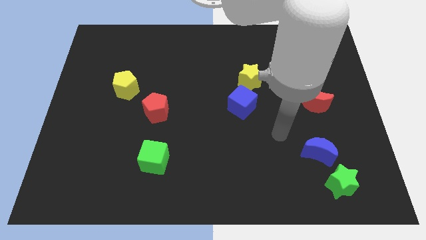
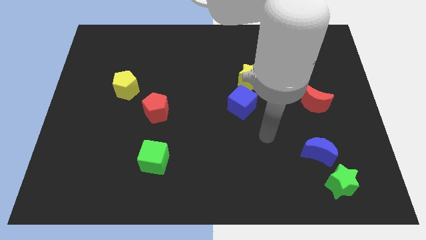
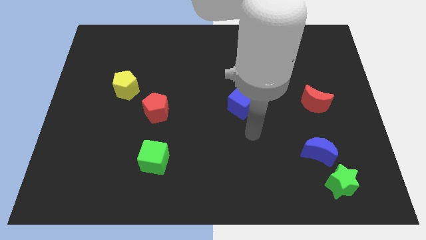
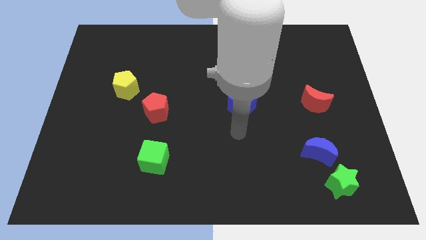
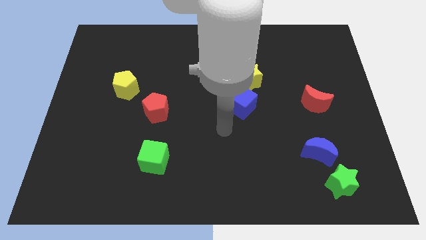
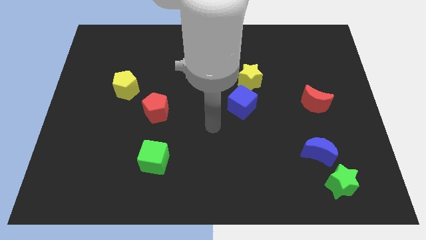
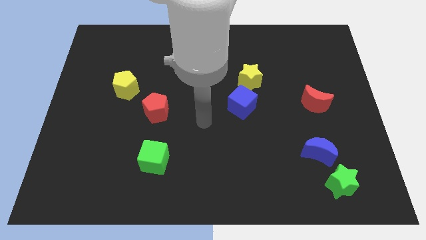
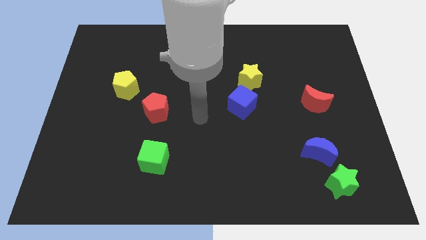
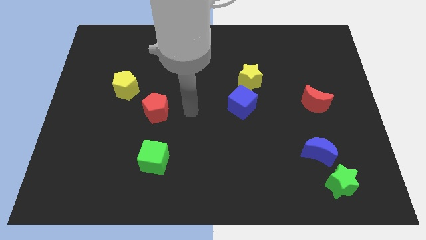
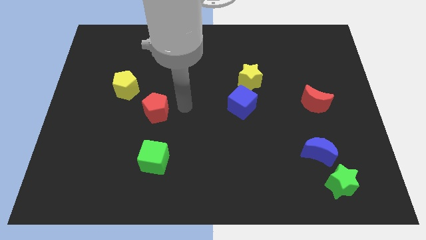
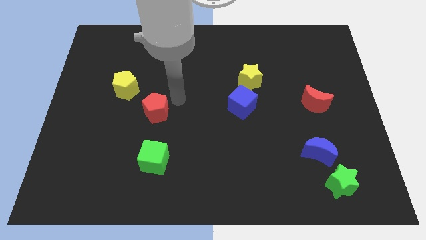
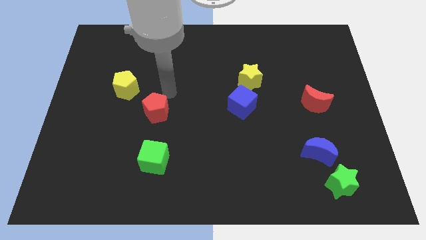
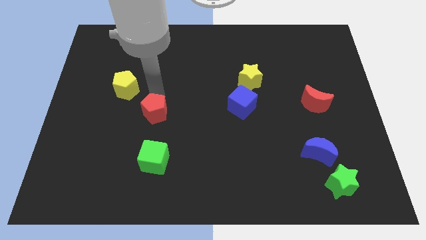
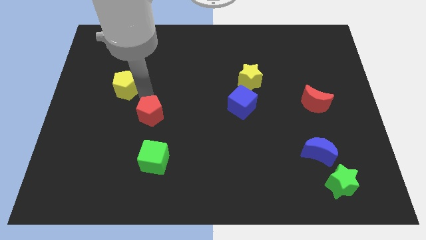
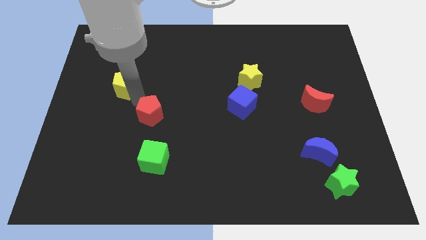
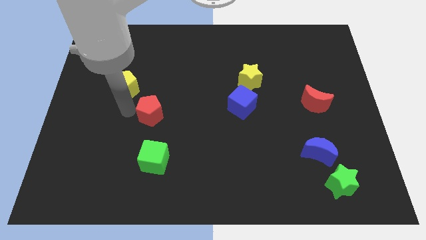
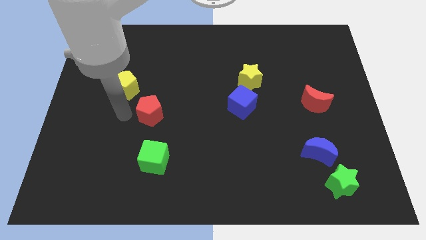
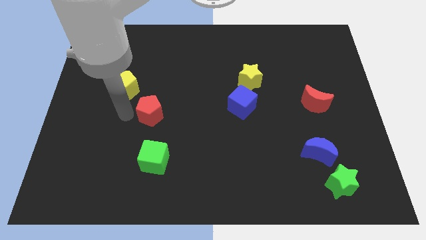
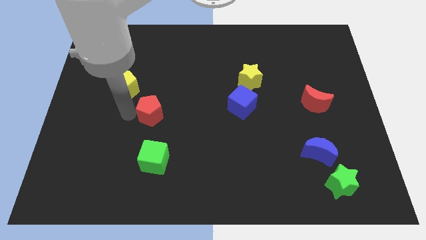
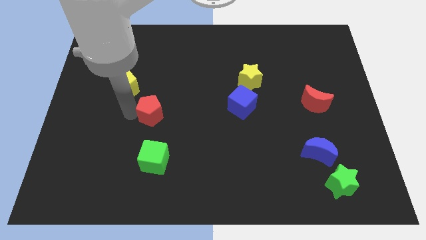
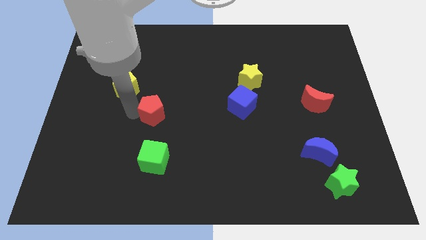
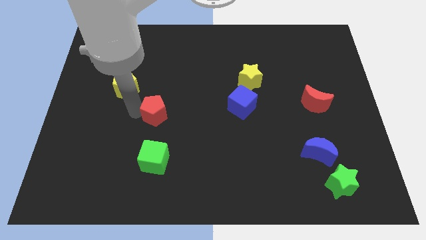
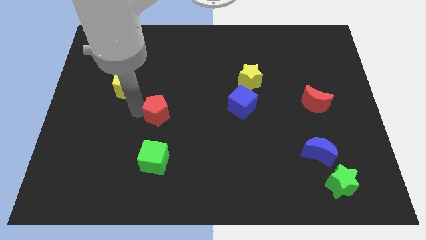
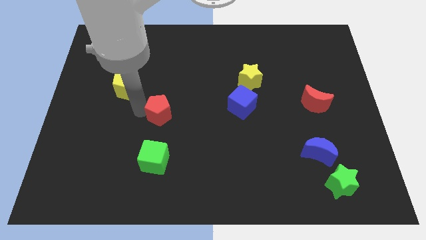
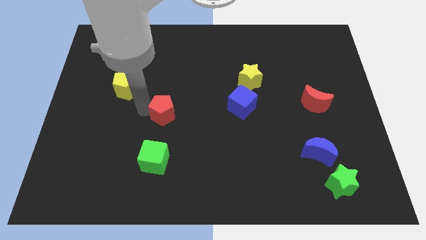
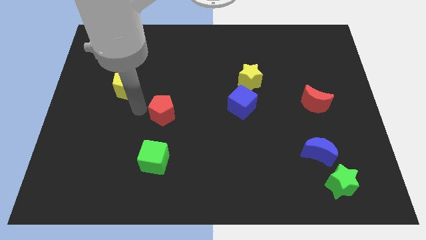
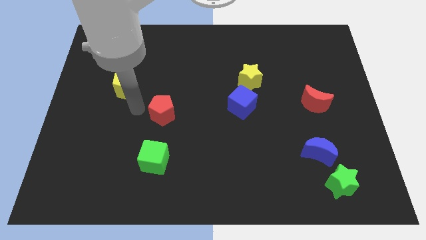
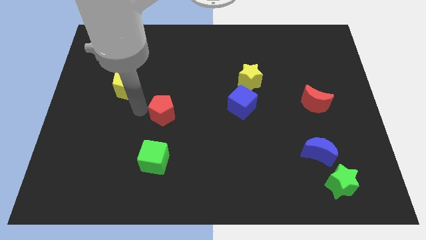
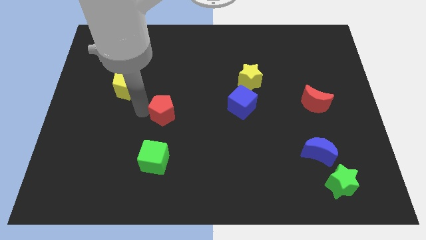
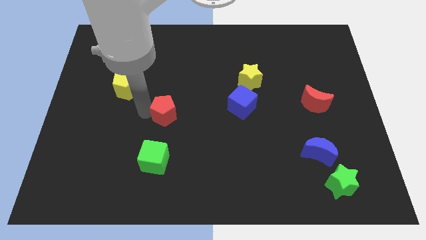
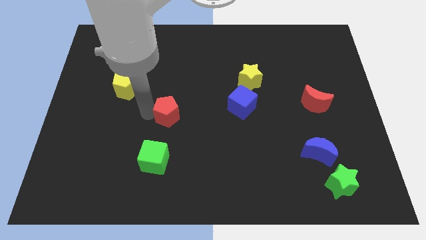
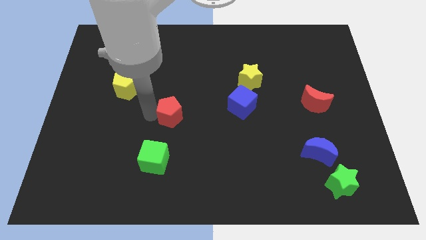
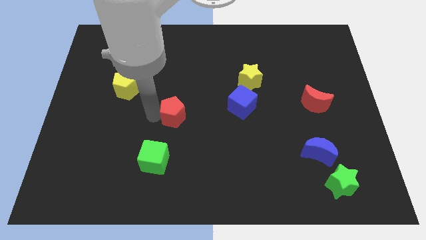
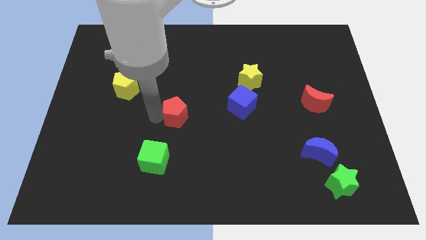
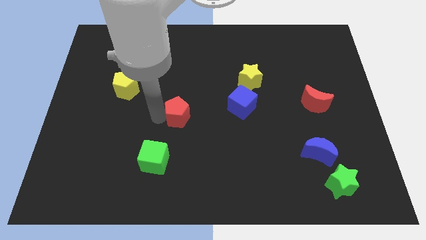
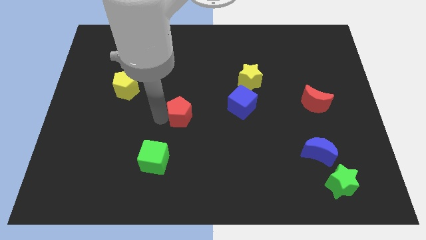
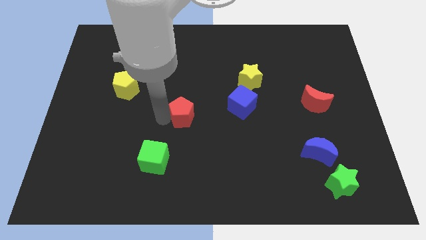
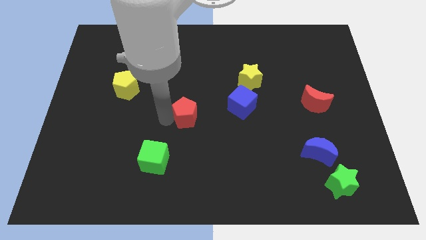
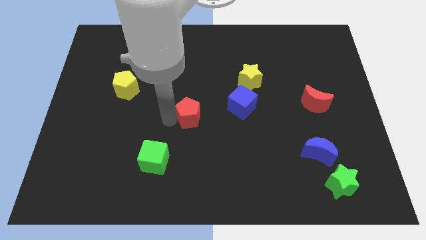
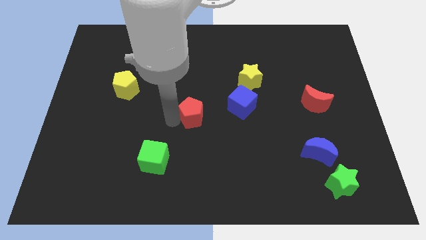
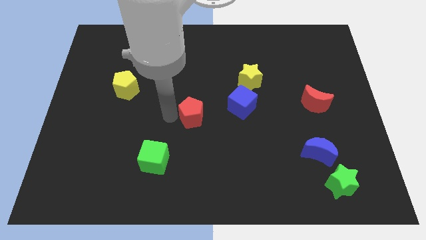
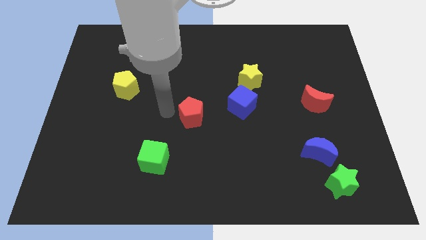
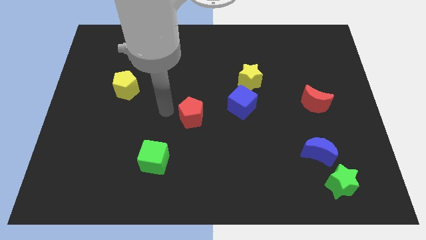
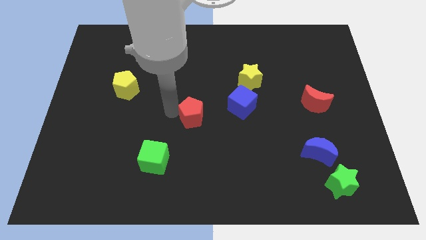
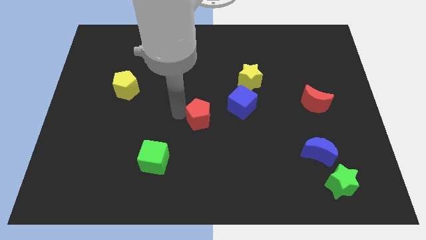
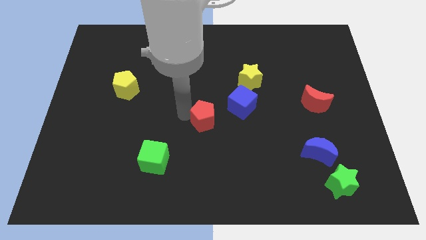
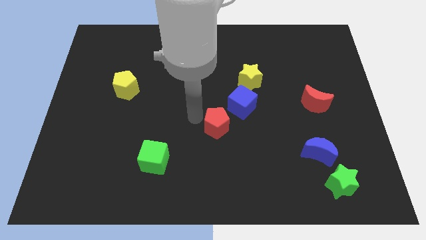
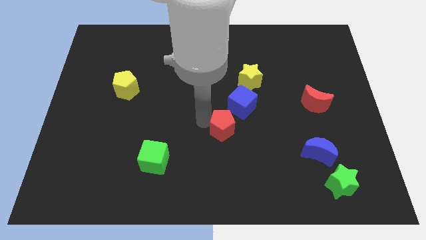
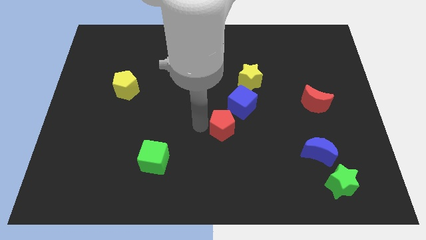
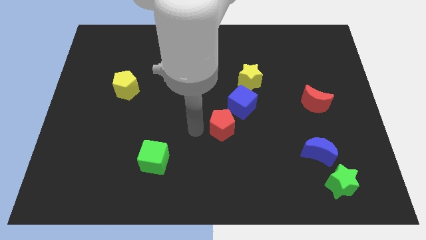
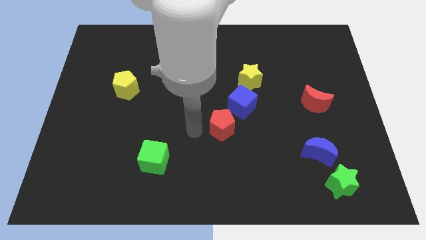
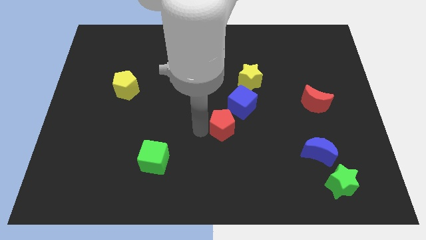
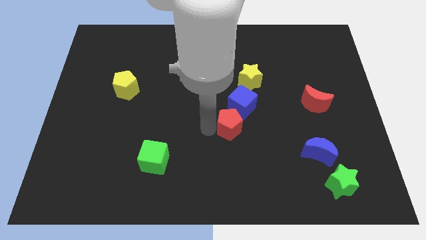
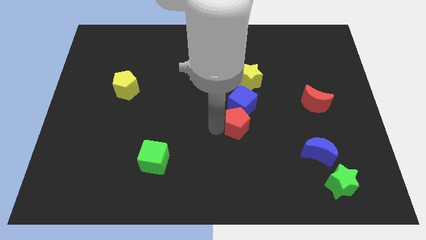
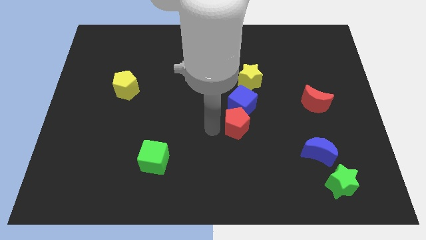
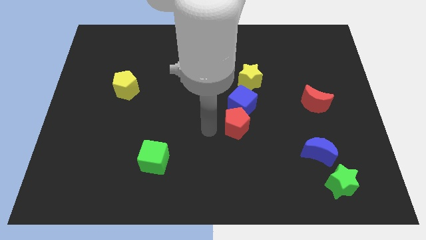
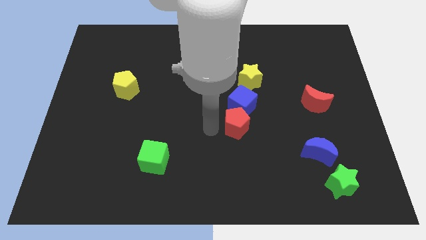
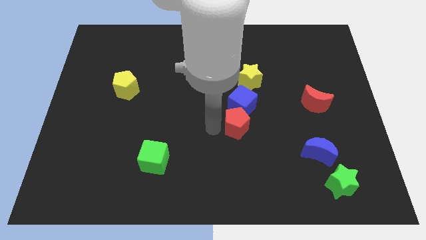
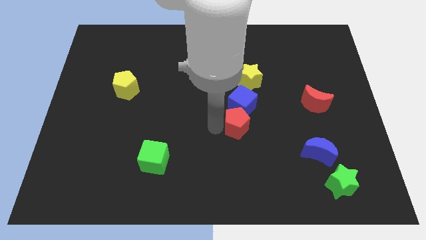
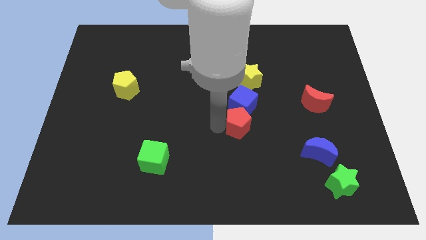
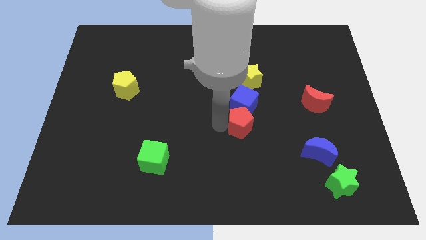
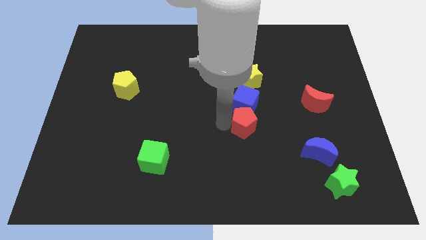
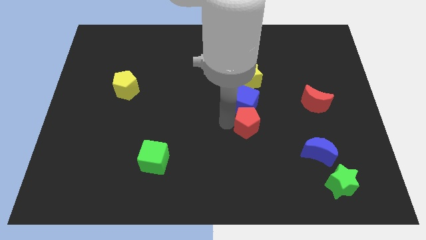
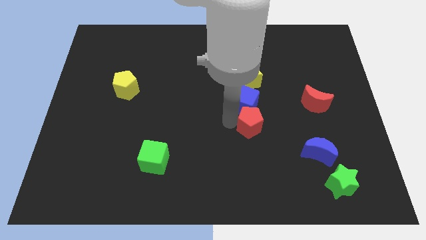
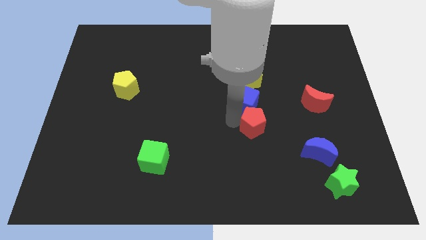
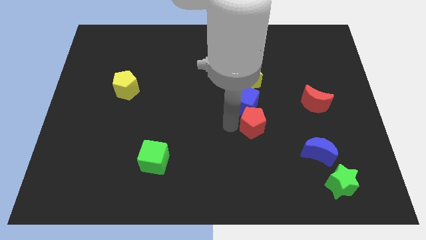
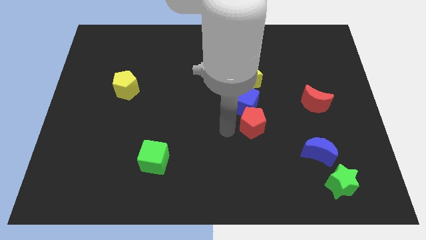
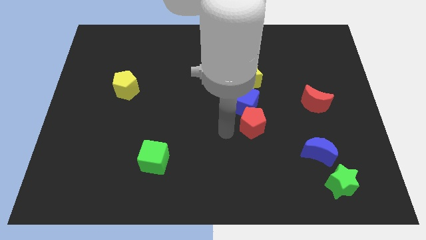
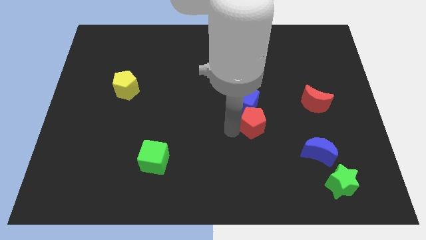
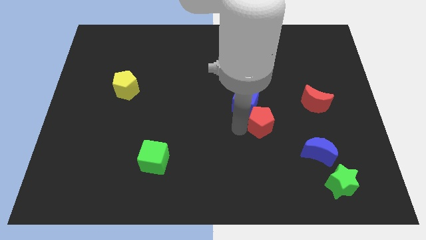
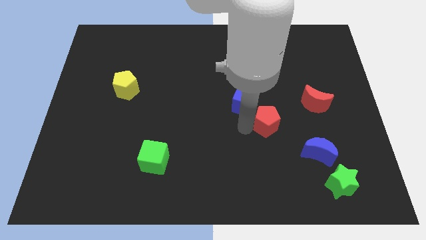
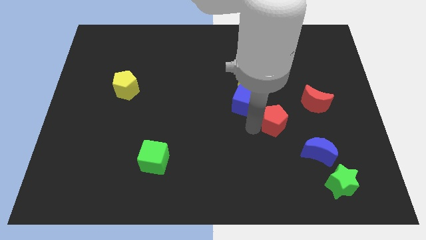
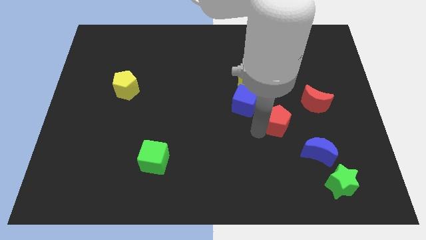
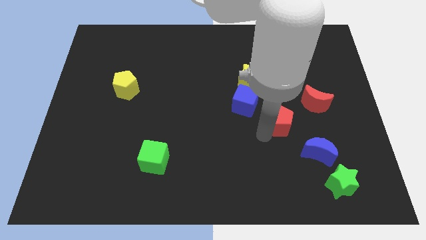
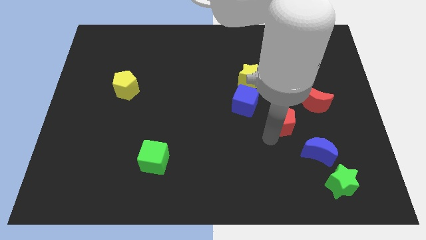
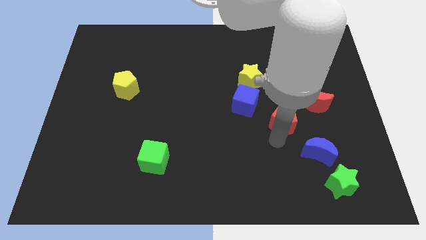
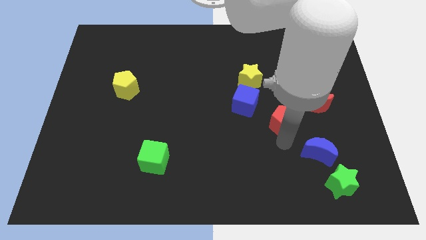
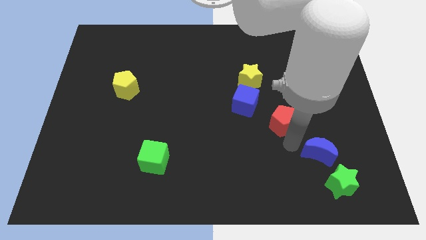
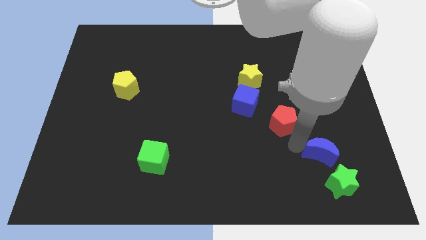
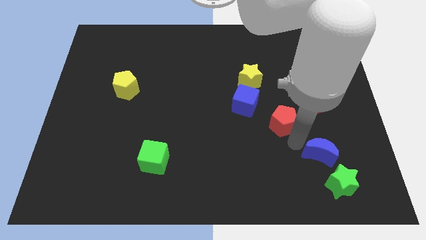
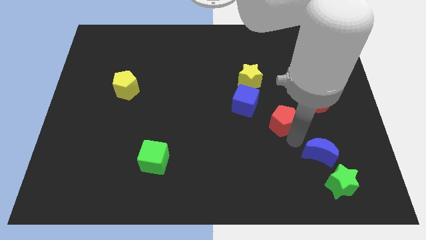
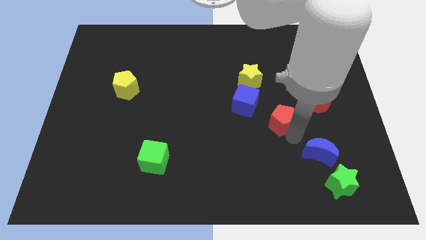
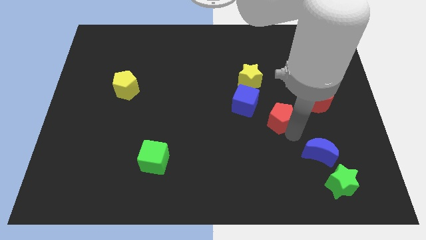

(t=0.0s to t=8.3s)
slide the red pentagon just left of the red moon
